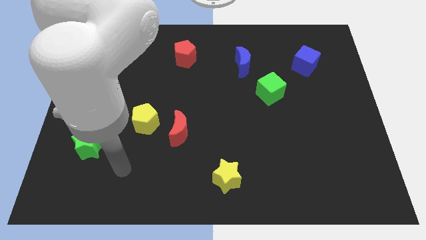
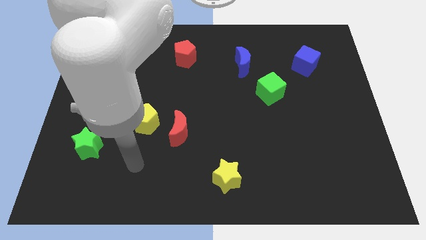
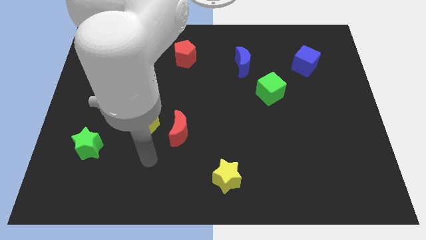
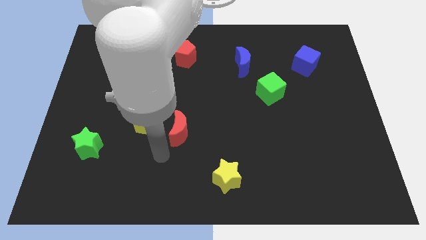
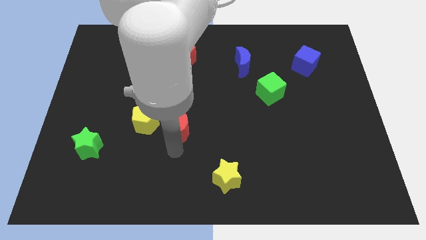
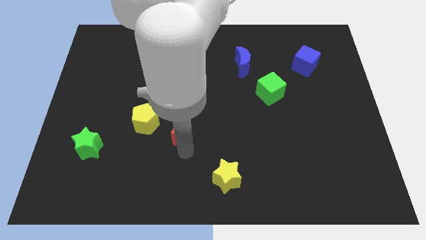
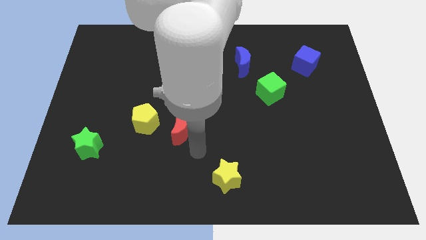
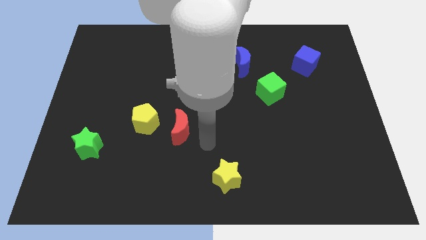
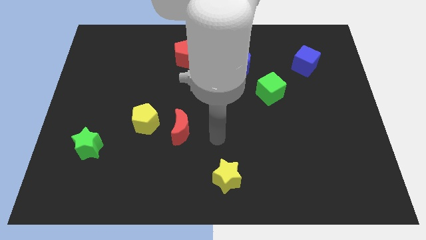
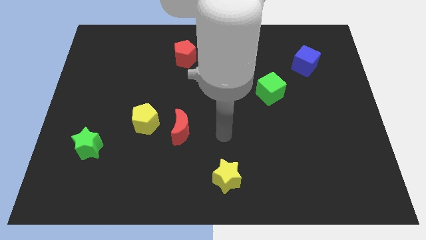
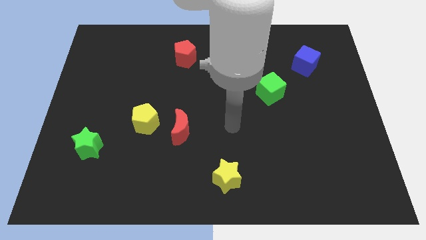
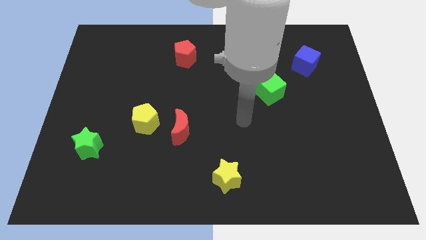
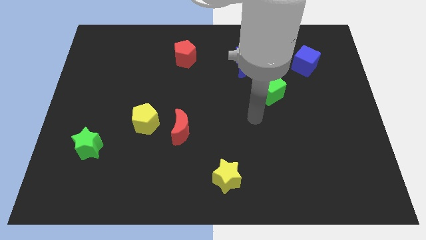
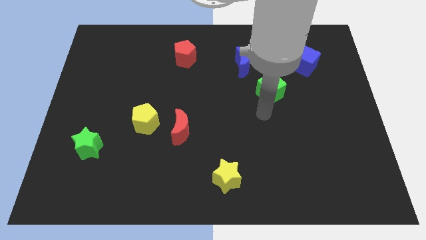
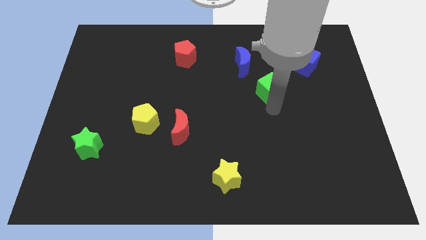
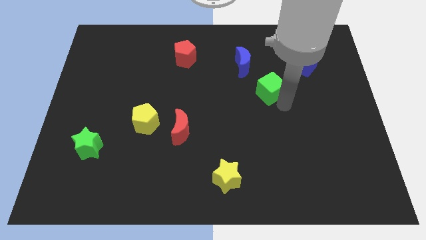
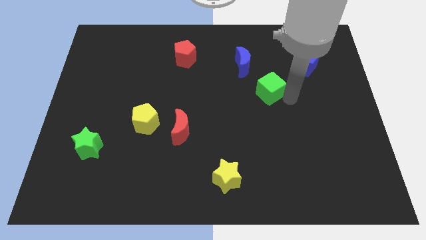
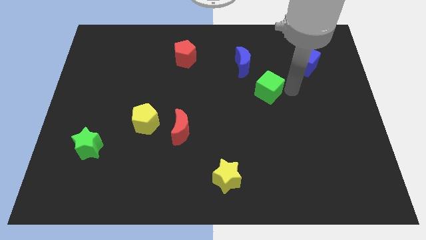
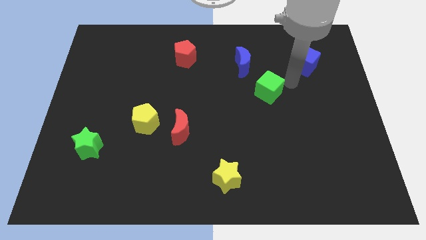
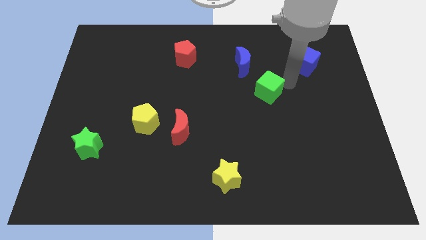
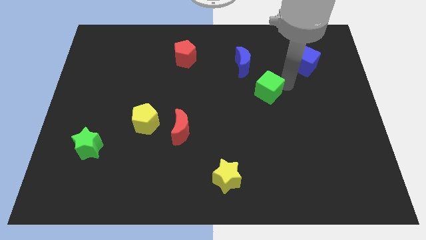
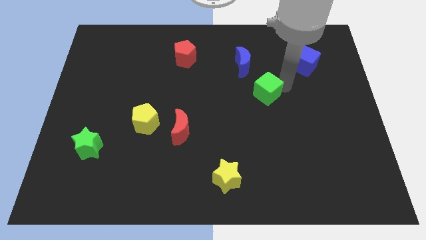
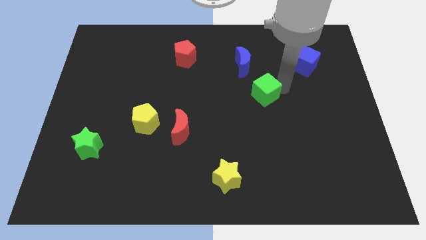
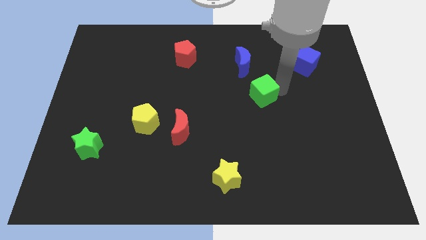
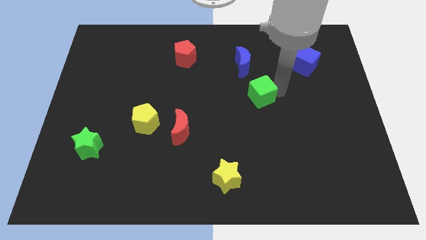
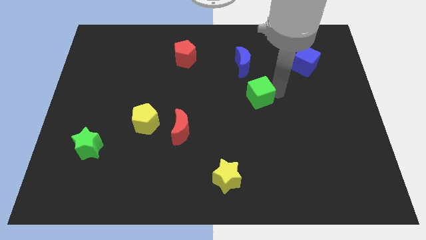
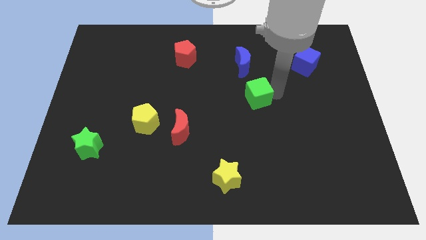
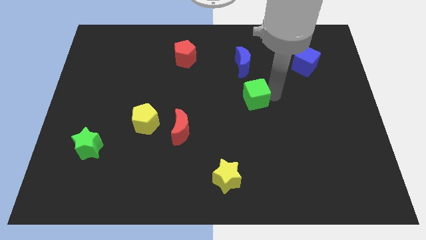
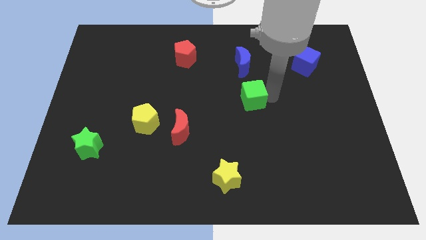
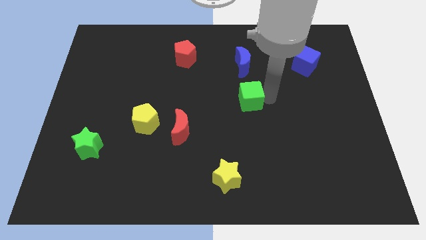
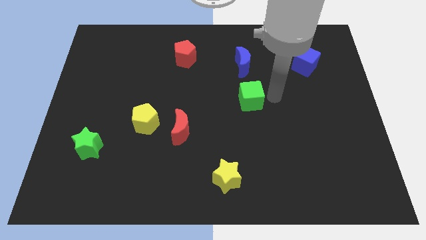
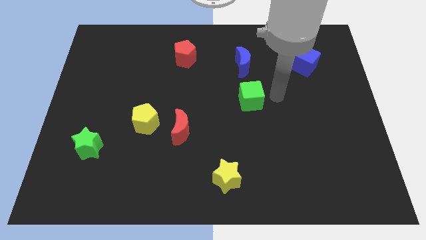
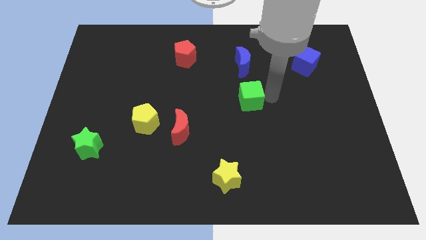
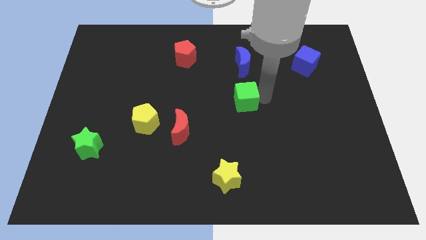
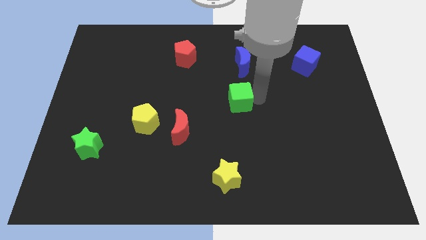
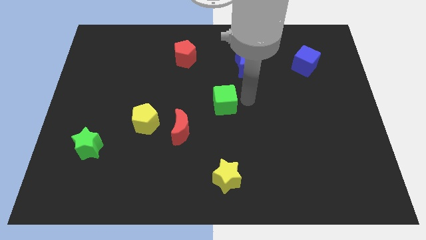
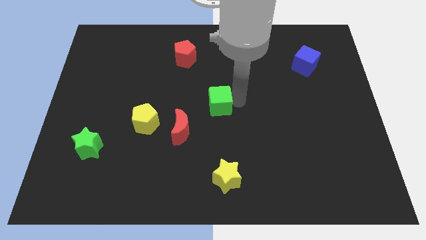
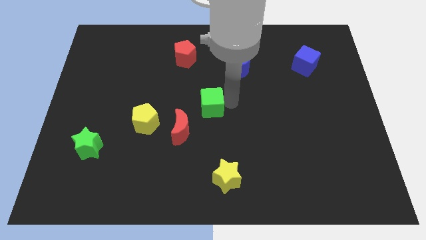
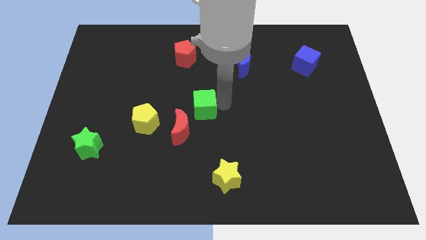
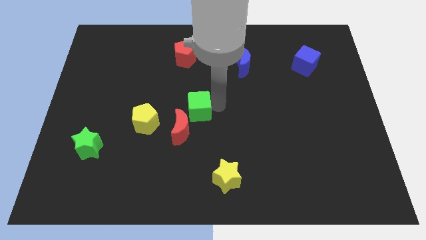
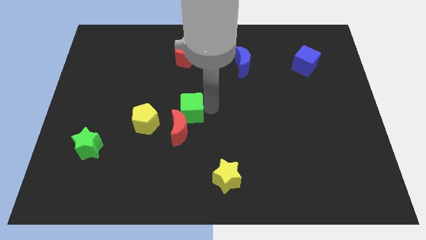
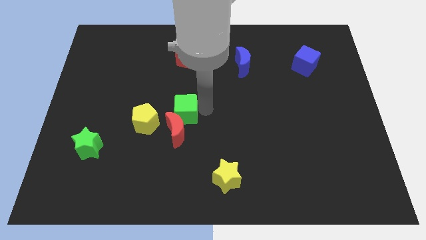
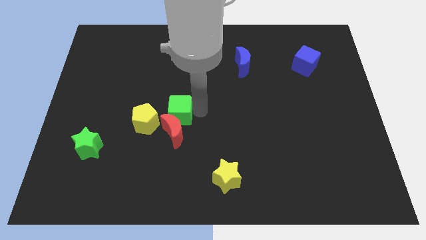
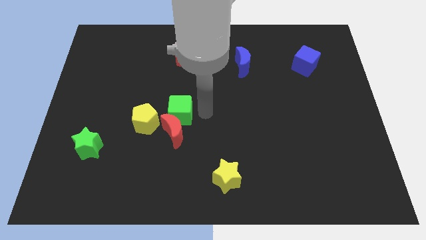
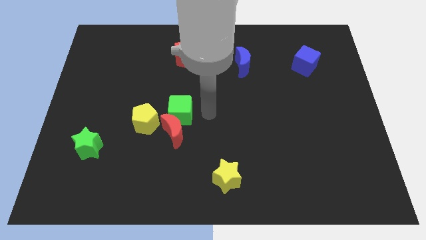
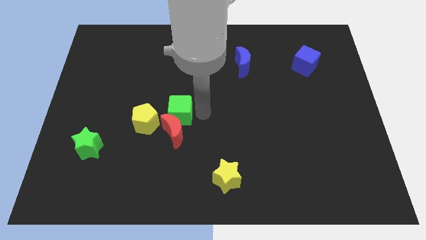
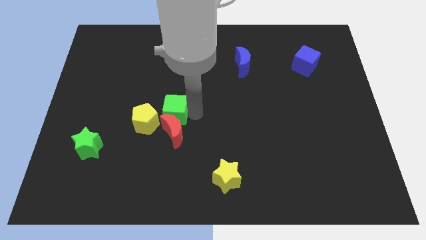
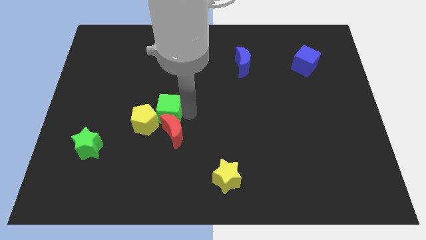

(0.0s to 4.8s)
move the green cube next to the yellow pentagon

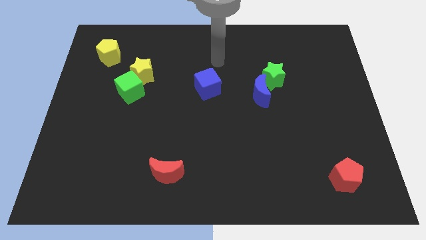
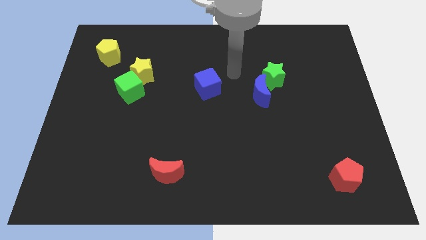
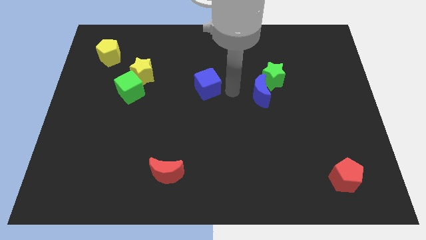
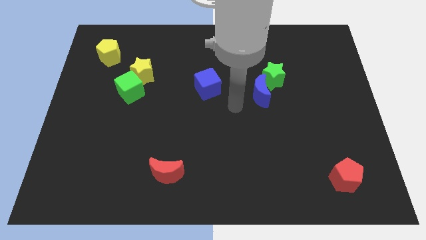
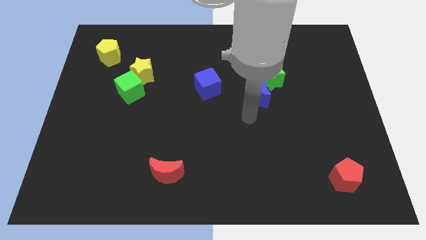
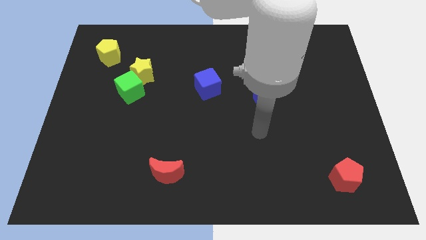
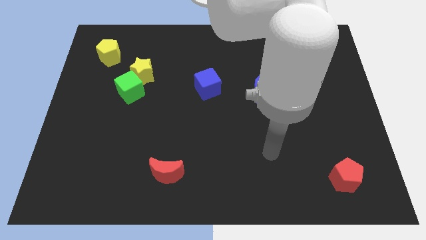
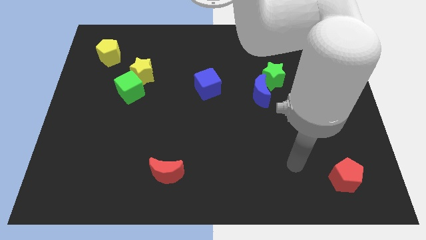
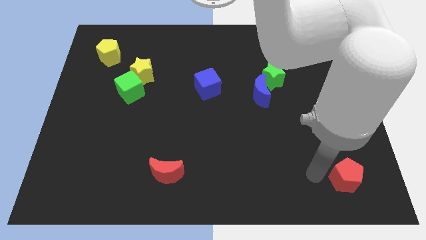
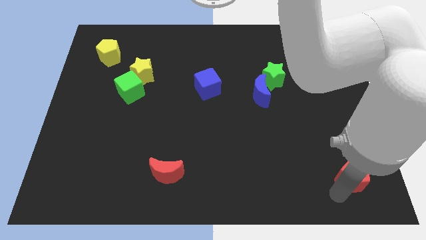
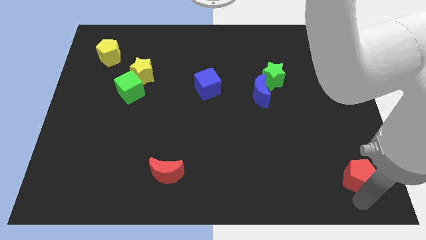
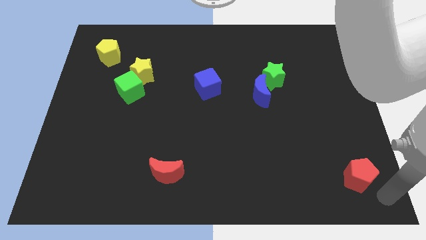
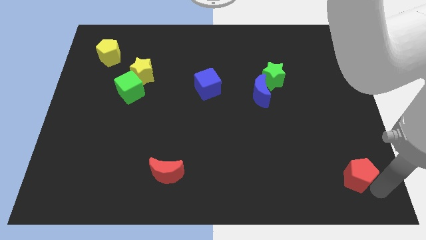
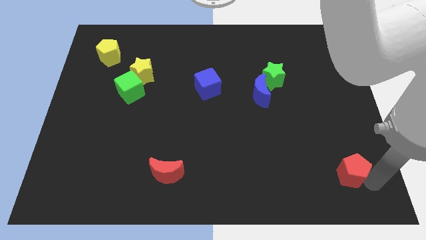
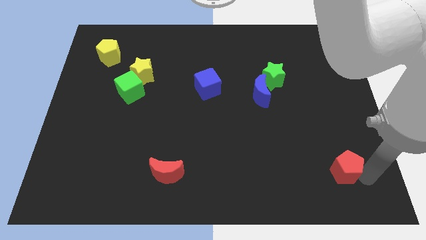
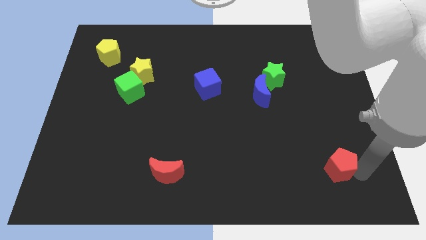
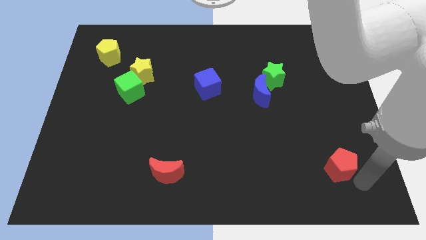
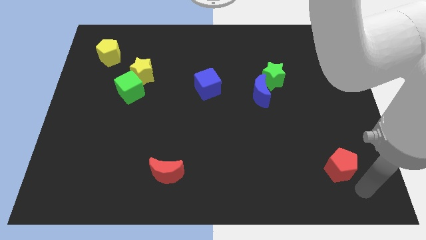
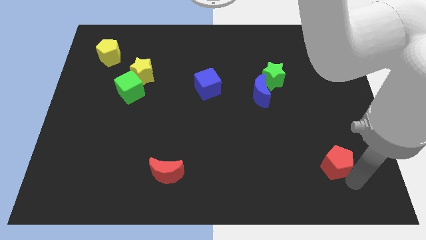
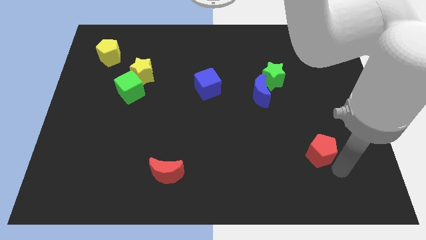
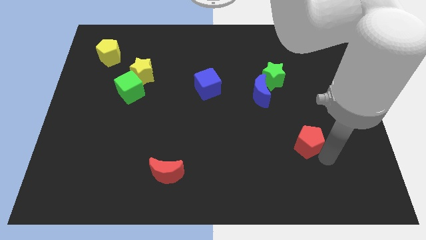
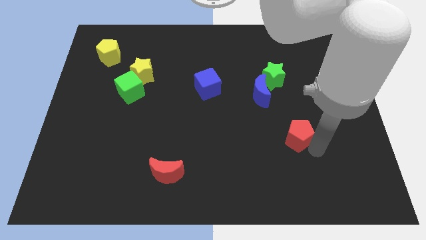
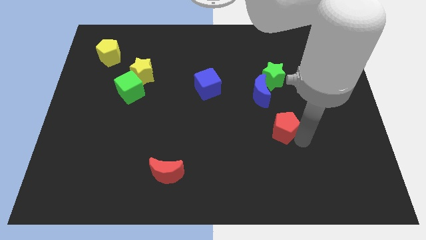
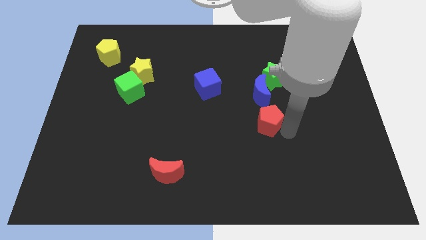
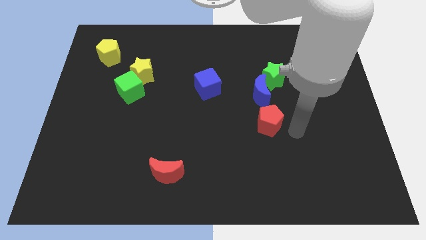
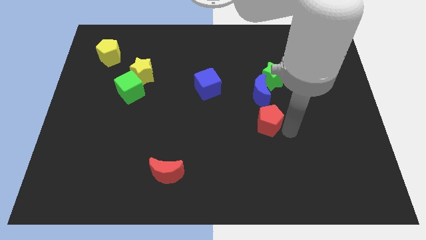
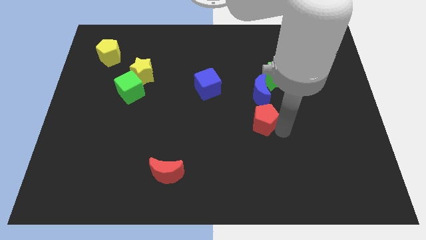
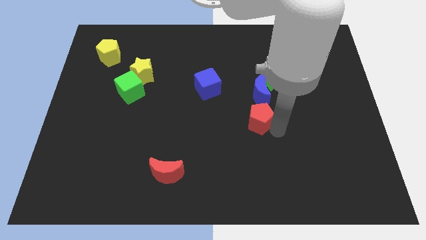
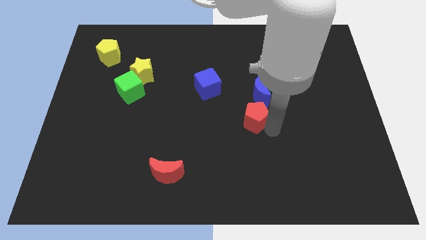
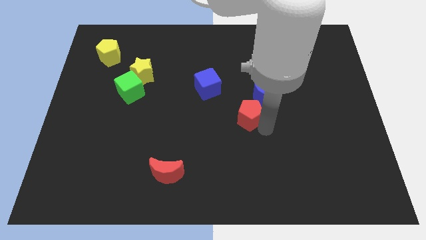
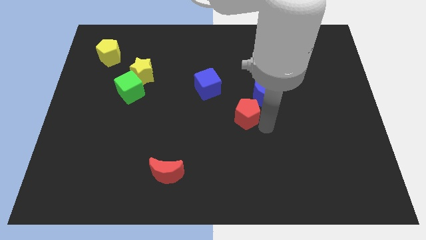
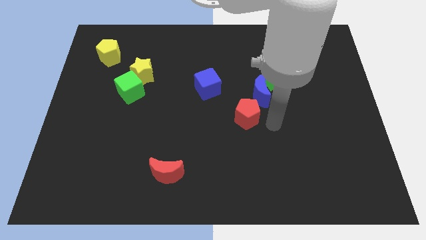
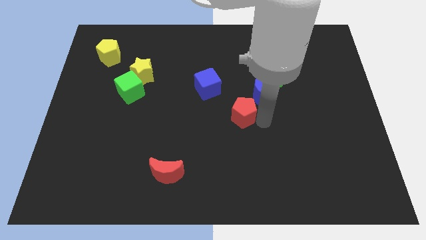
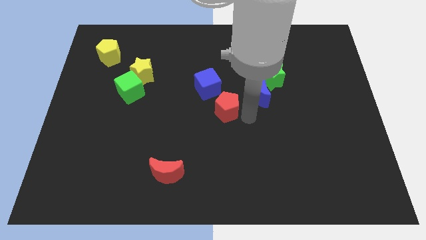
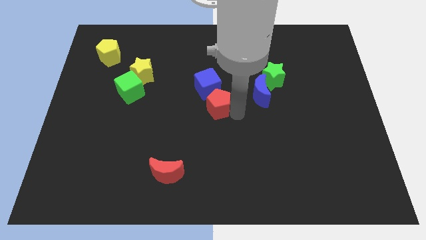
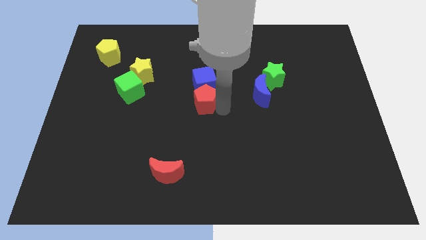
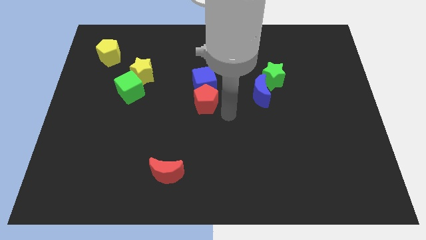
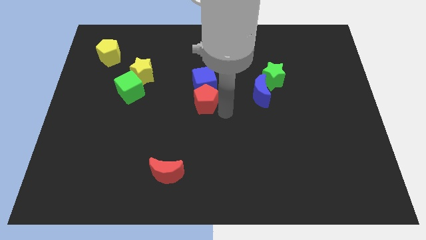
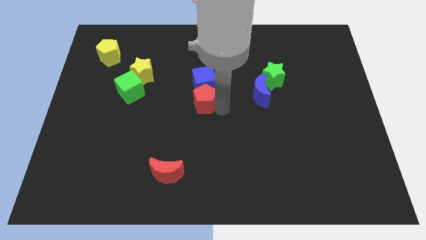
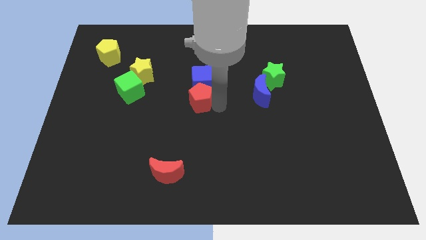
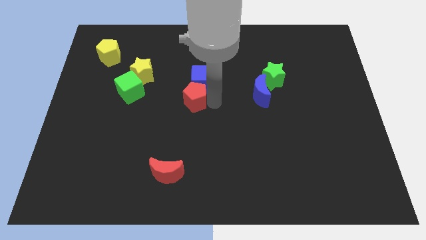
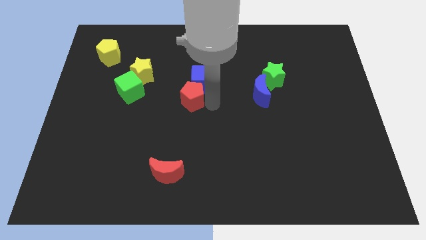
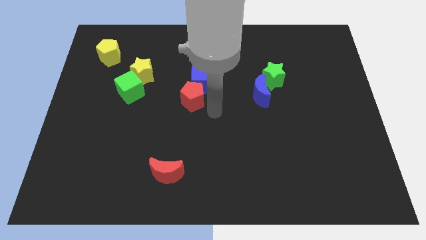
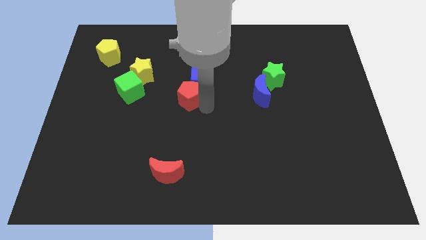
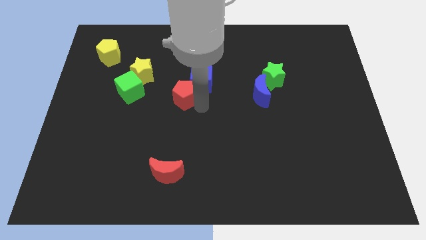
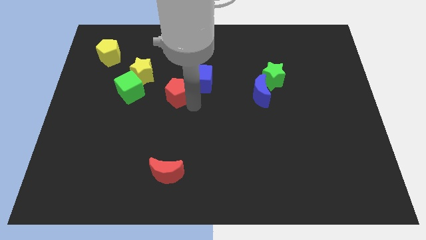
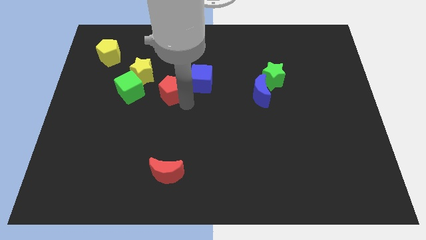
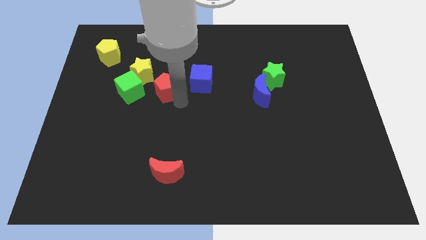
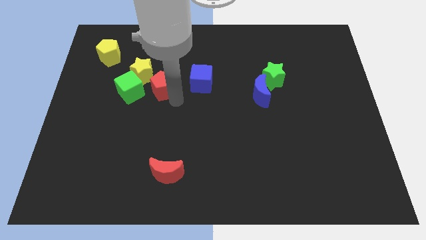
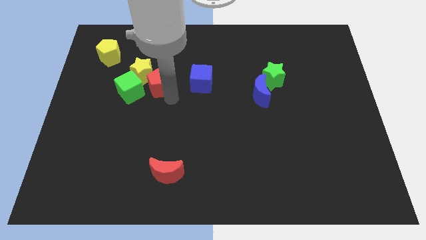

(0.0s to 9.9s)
move the red pentagon towards the yellow star
